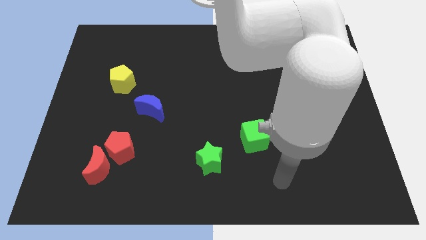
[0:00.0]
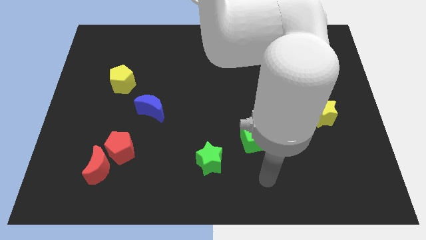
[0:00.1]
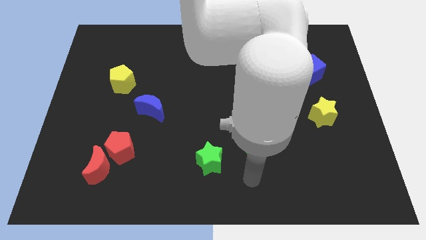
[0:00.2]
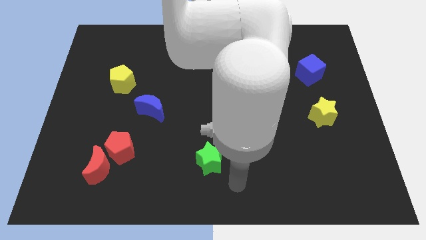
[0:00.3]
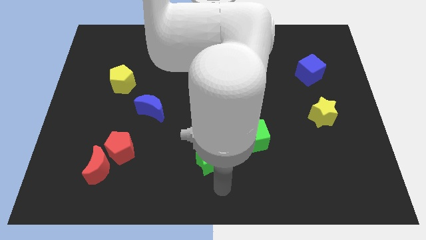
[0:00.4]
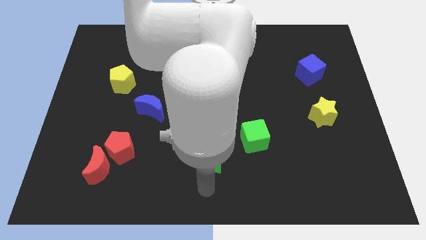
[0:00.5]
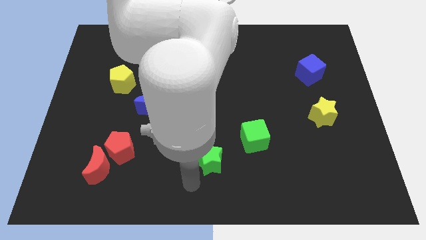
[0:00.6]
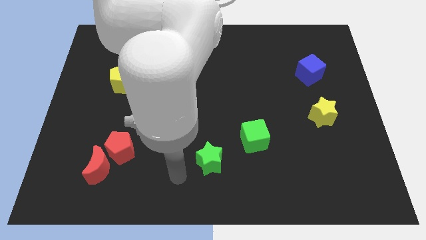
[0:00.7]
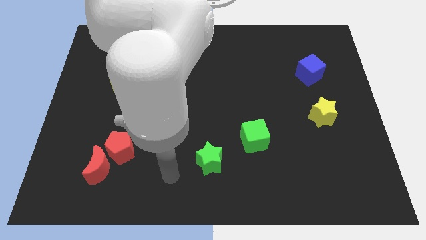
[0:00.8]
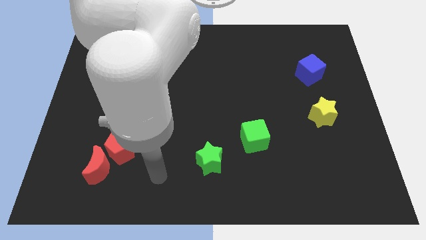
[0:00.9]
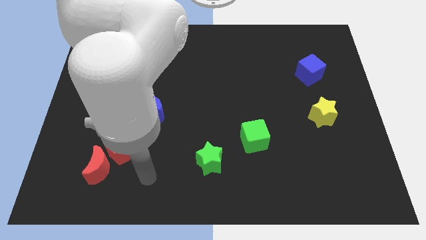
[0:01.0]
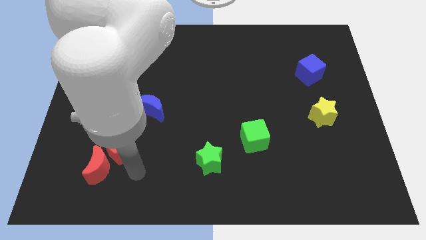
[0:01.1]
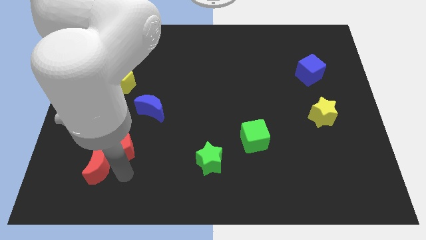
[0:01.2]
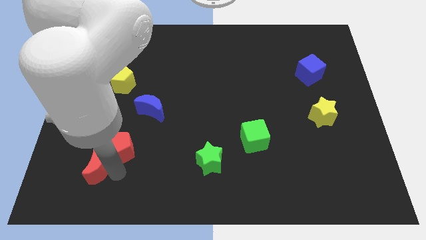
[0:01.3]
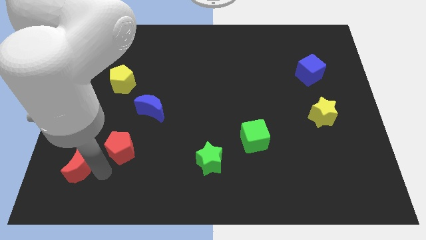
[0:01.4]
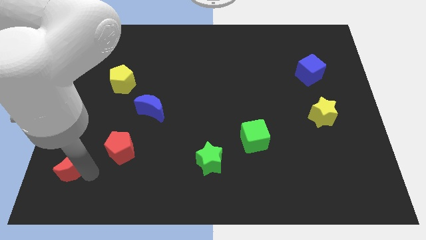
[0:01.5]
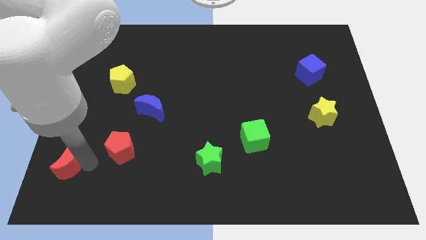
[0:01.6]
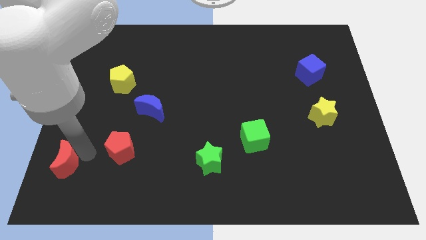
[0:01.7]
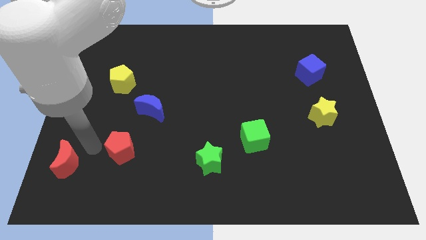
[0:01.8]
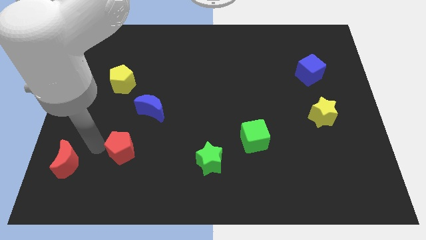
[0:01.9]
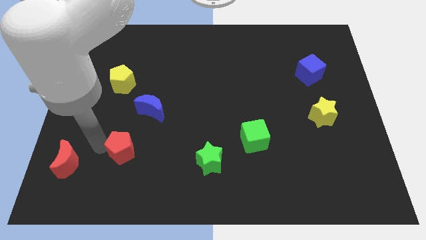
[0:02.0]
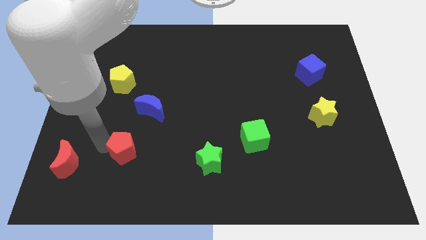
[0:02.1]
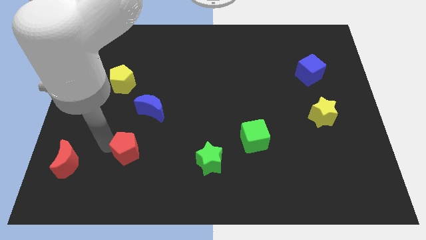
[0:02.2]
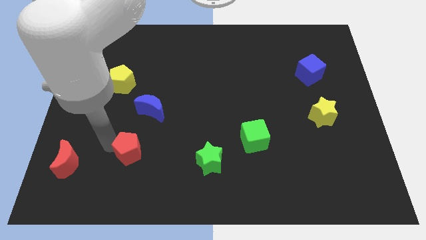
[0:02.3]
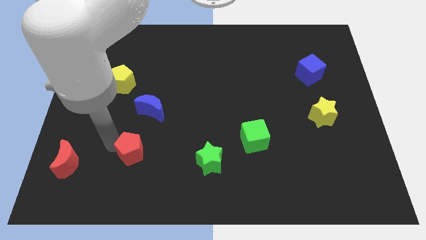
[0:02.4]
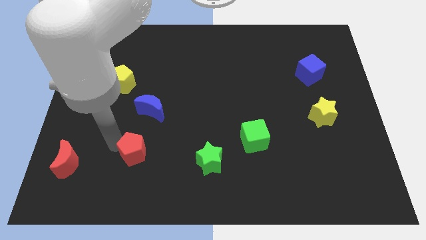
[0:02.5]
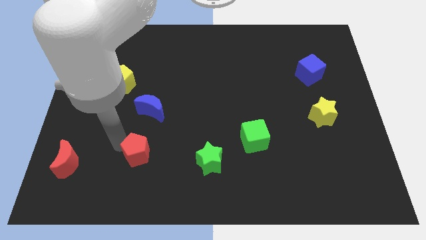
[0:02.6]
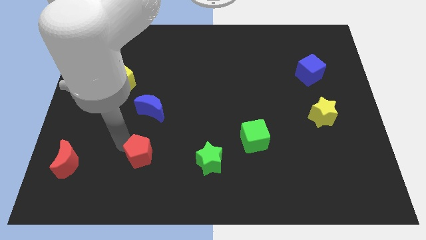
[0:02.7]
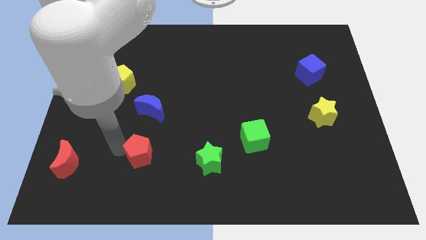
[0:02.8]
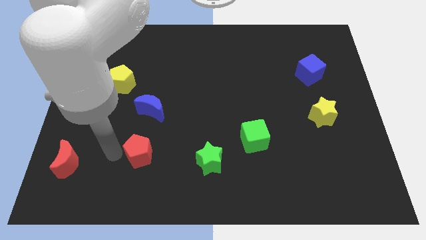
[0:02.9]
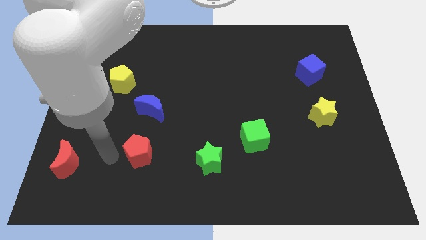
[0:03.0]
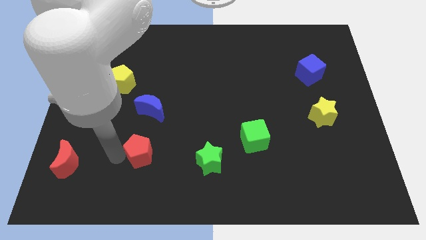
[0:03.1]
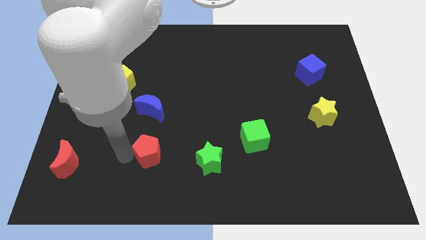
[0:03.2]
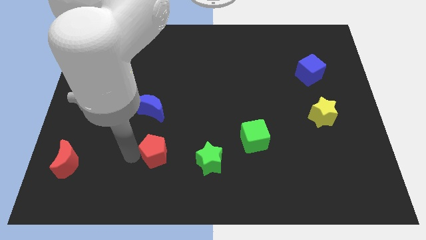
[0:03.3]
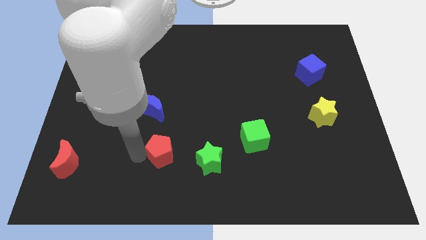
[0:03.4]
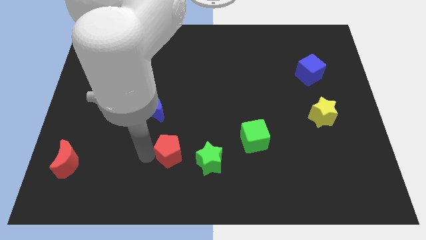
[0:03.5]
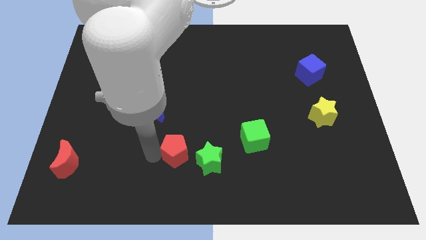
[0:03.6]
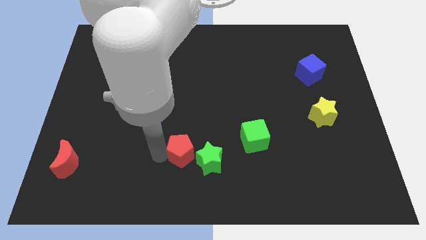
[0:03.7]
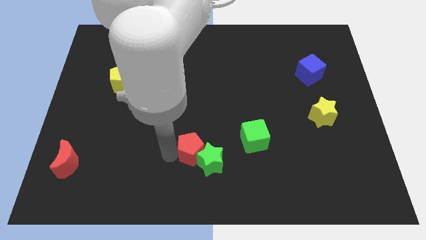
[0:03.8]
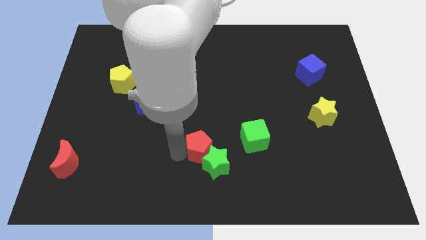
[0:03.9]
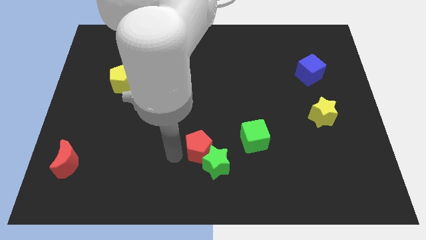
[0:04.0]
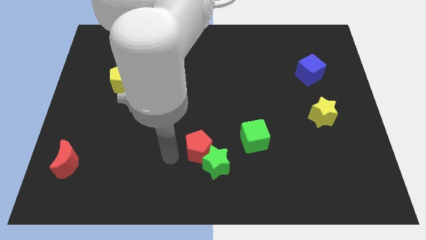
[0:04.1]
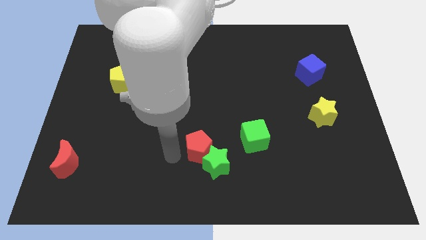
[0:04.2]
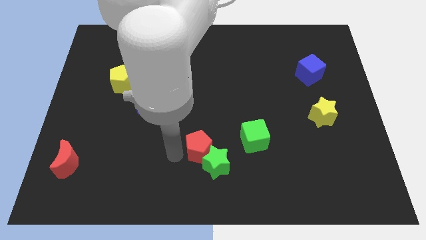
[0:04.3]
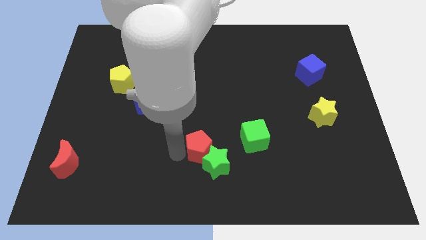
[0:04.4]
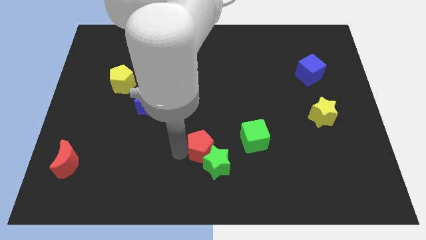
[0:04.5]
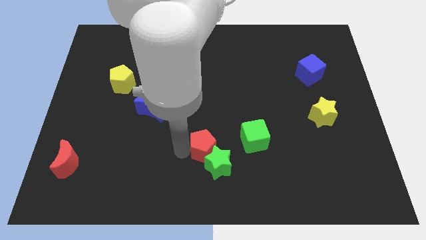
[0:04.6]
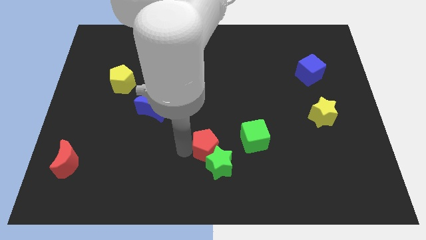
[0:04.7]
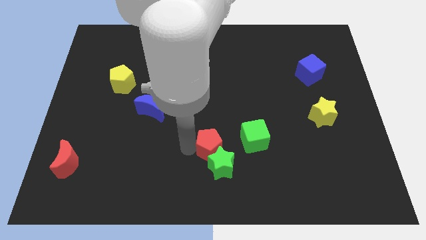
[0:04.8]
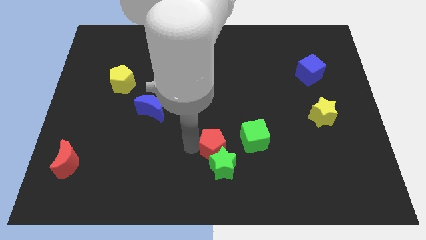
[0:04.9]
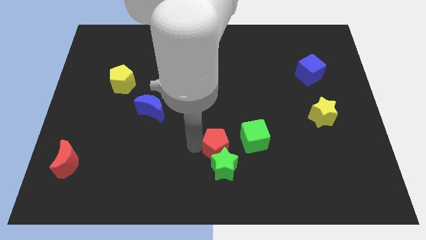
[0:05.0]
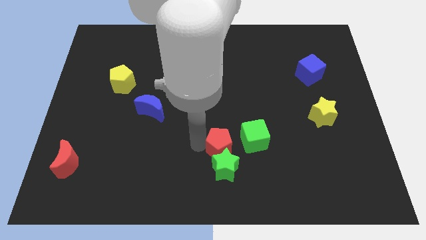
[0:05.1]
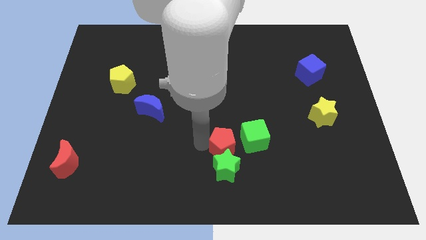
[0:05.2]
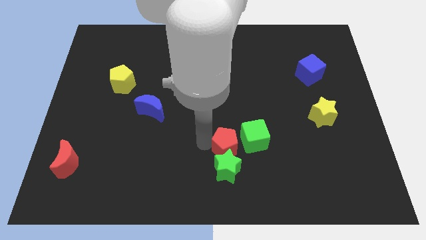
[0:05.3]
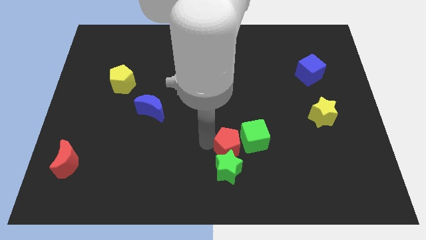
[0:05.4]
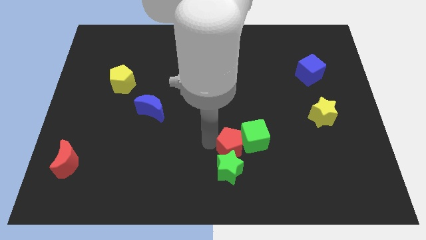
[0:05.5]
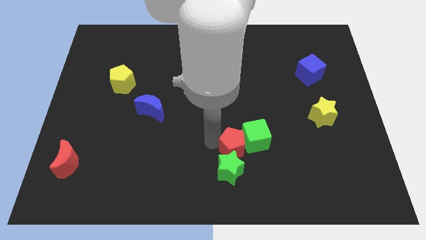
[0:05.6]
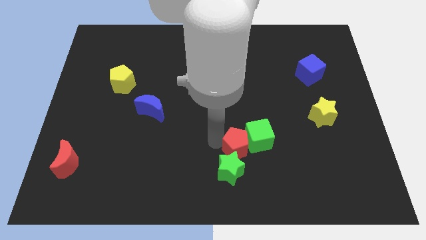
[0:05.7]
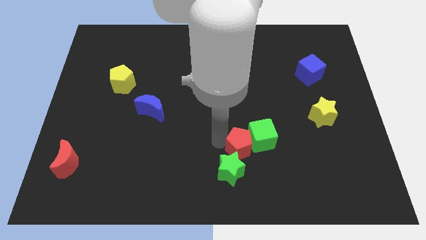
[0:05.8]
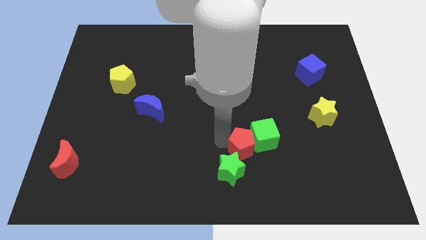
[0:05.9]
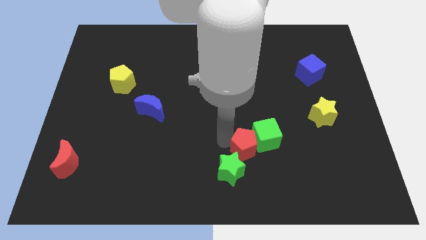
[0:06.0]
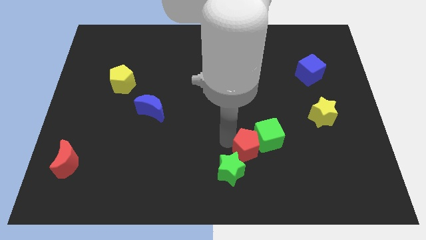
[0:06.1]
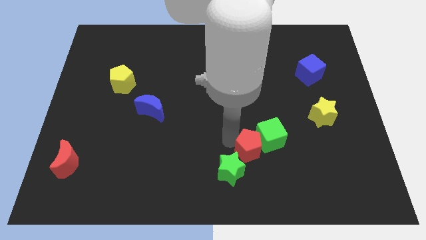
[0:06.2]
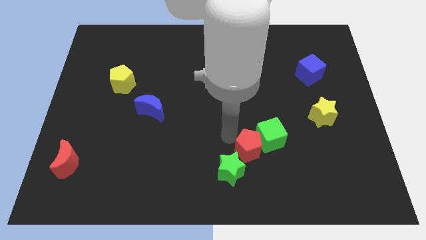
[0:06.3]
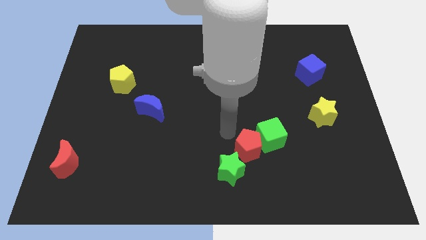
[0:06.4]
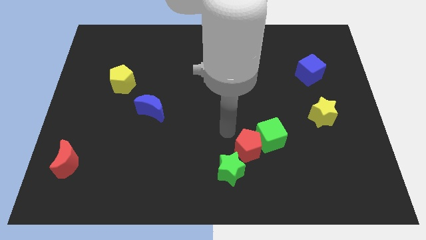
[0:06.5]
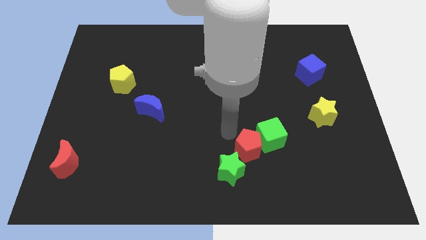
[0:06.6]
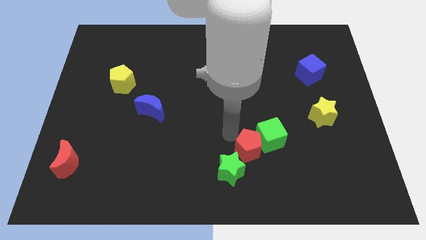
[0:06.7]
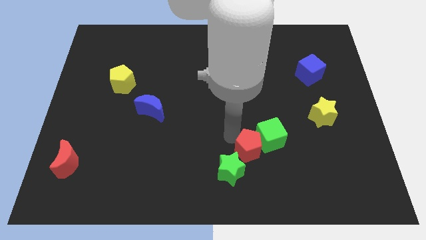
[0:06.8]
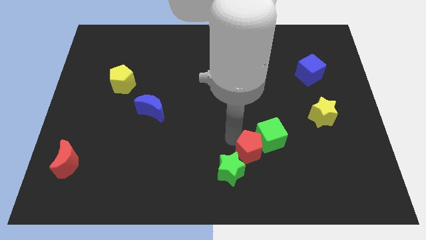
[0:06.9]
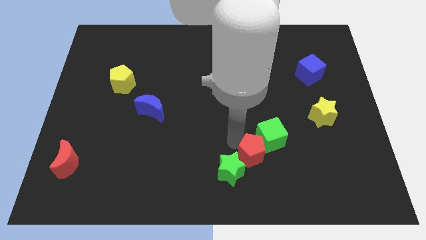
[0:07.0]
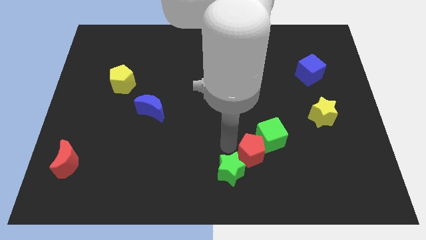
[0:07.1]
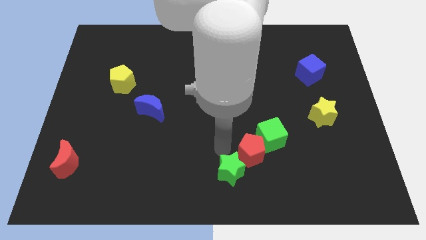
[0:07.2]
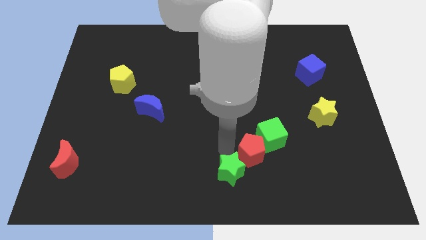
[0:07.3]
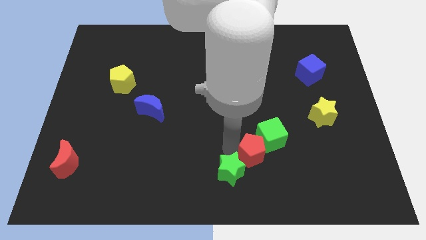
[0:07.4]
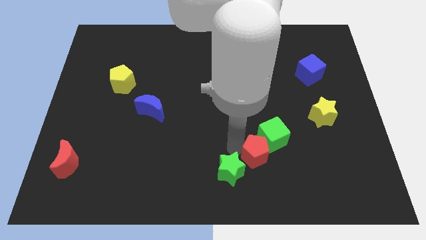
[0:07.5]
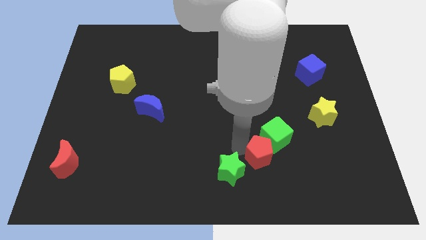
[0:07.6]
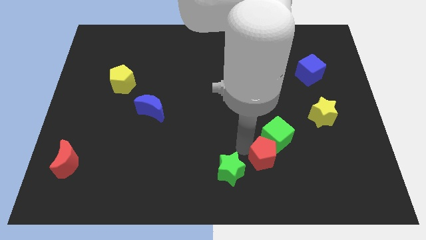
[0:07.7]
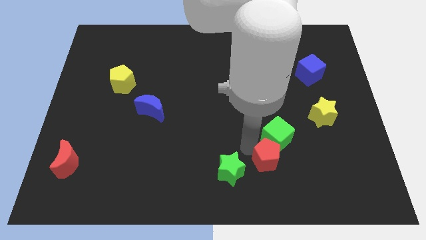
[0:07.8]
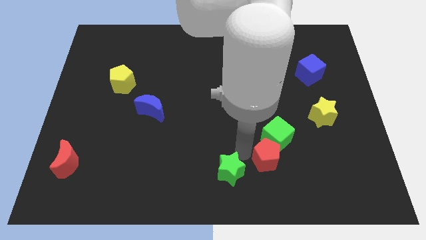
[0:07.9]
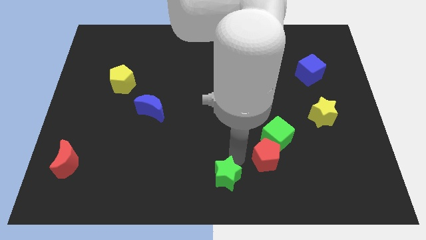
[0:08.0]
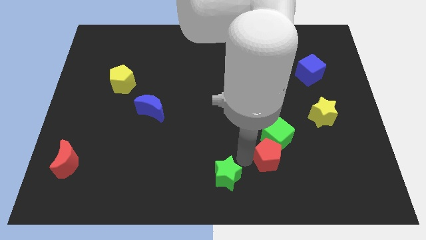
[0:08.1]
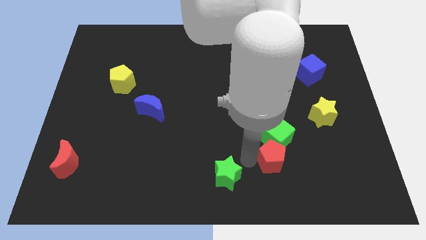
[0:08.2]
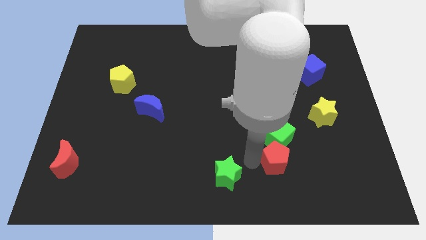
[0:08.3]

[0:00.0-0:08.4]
move the red pentagon to the bottom right of the green cube
